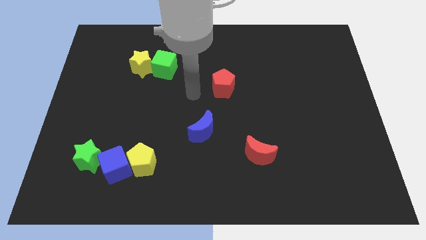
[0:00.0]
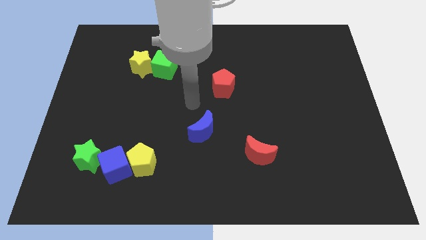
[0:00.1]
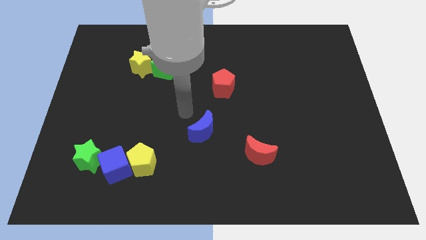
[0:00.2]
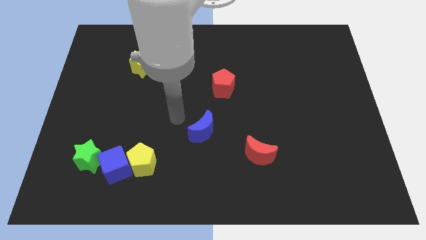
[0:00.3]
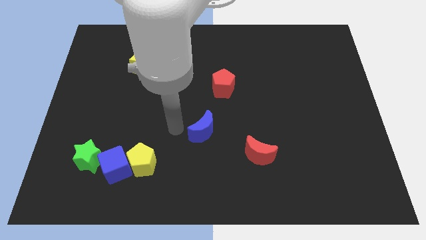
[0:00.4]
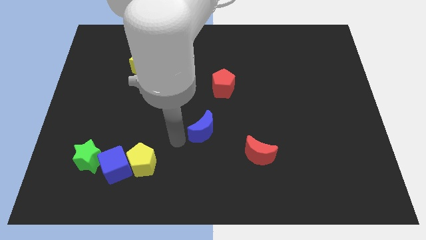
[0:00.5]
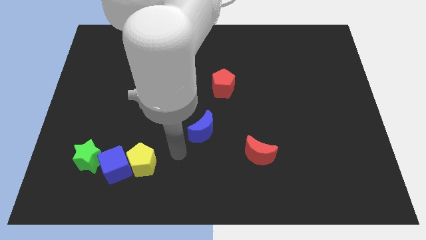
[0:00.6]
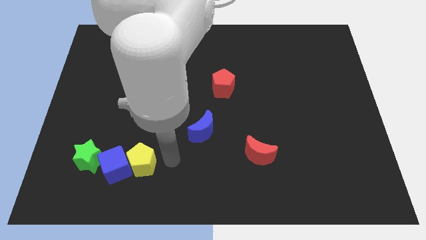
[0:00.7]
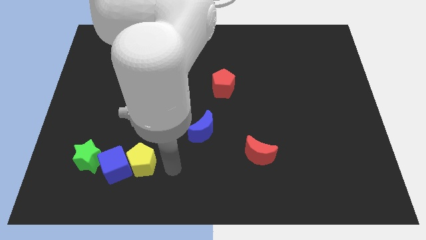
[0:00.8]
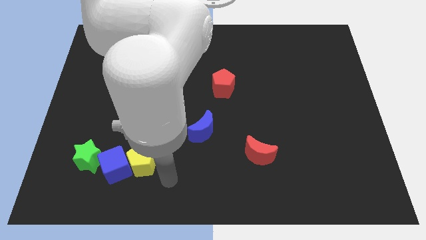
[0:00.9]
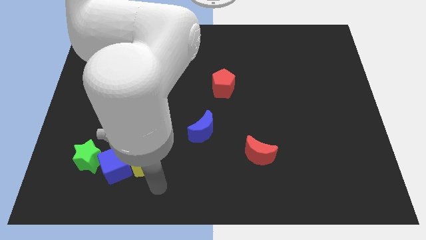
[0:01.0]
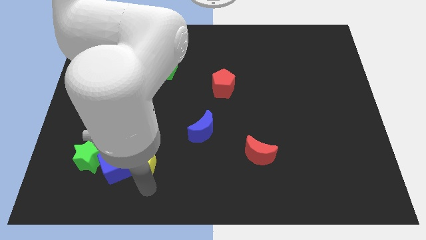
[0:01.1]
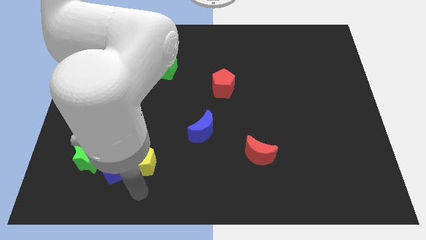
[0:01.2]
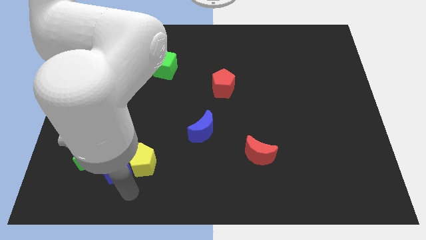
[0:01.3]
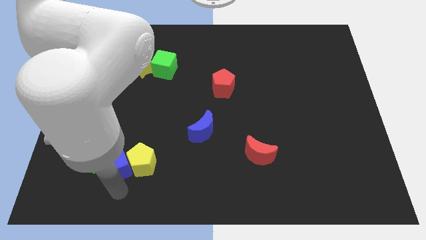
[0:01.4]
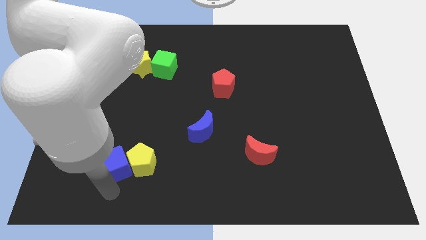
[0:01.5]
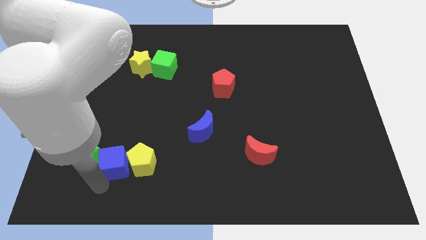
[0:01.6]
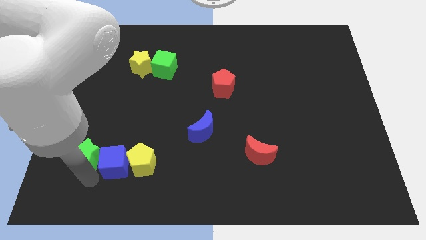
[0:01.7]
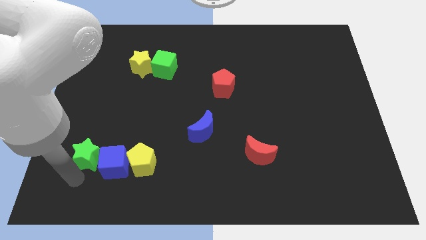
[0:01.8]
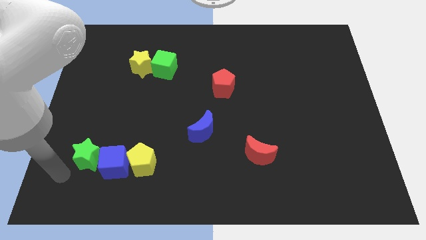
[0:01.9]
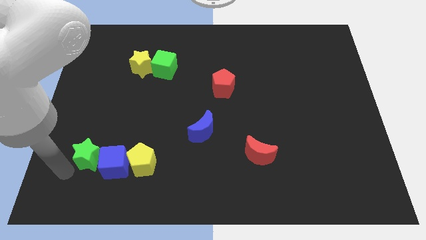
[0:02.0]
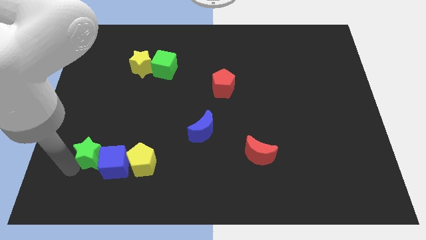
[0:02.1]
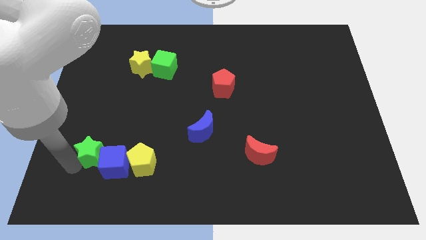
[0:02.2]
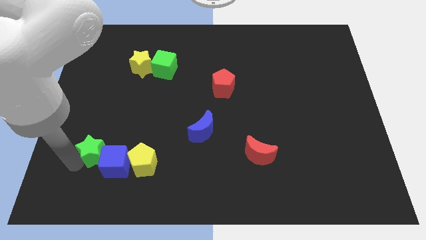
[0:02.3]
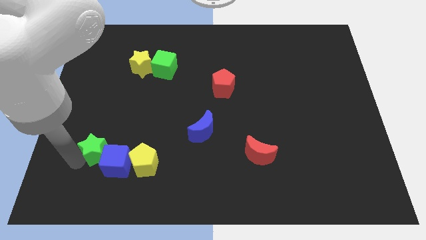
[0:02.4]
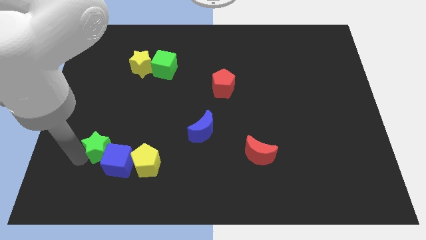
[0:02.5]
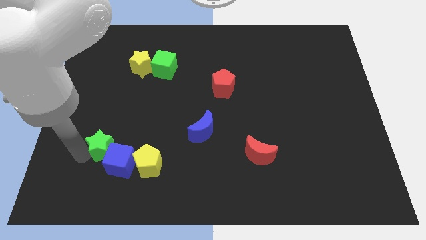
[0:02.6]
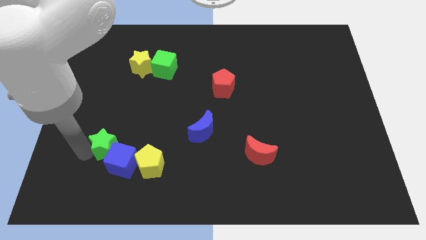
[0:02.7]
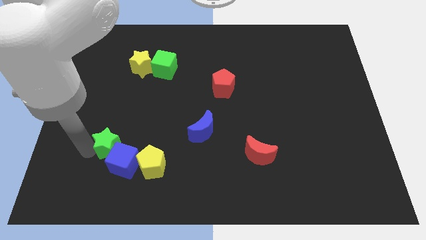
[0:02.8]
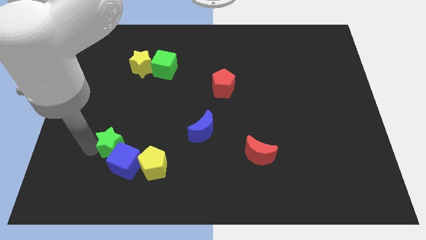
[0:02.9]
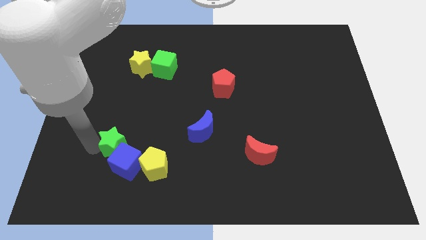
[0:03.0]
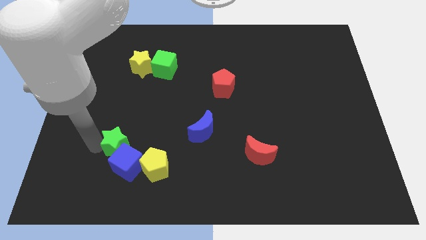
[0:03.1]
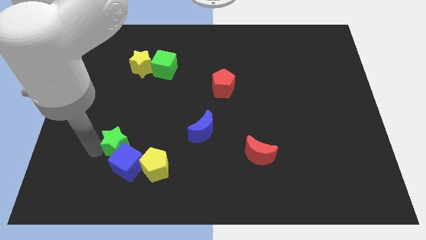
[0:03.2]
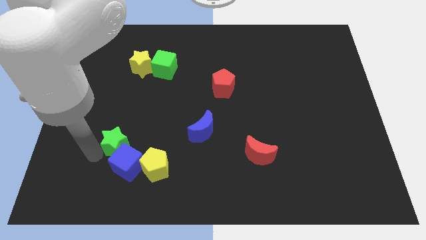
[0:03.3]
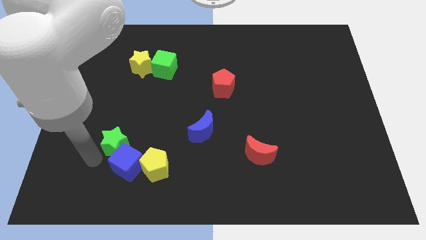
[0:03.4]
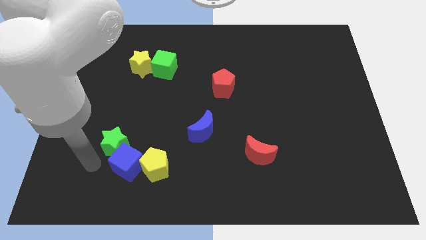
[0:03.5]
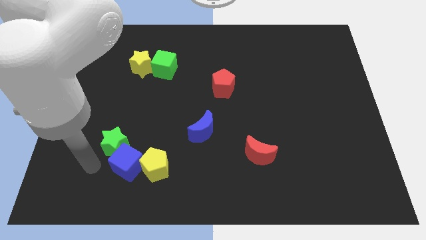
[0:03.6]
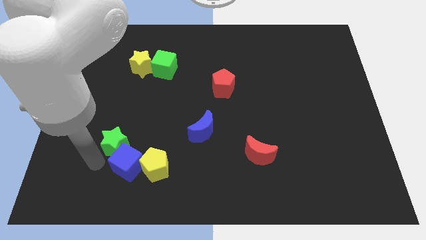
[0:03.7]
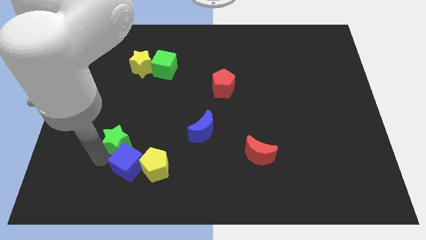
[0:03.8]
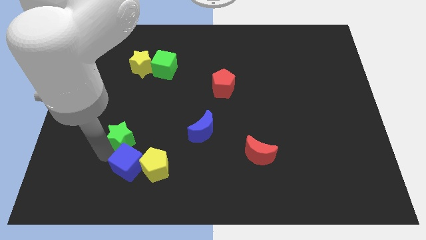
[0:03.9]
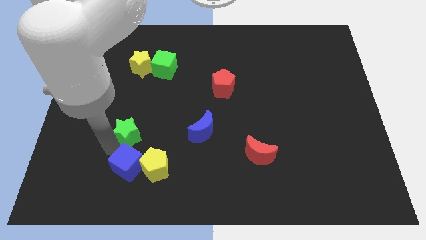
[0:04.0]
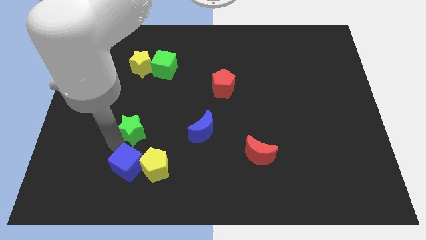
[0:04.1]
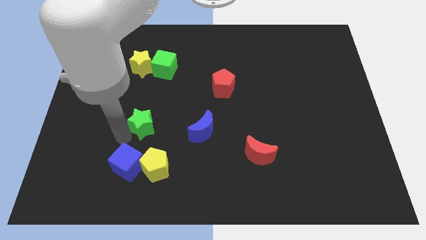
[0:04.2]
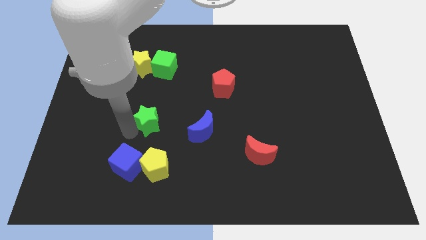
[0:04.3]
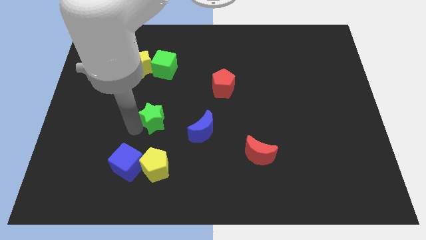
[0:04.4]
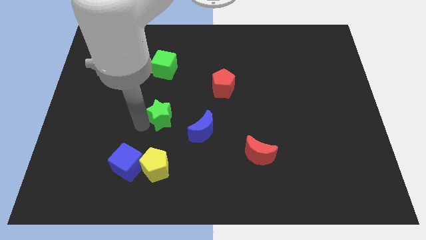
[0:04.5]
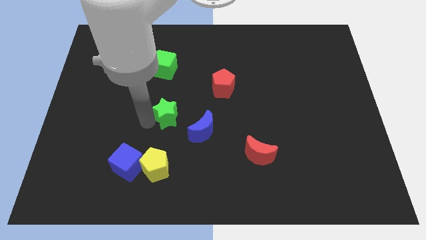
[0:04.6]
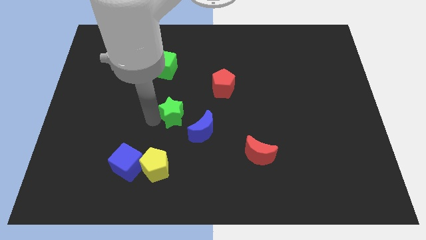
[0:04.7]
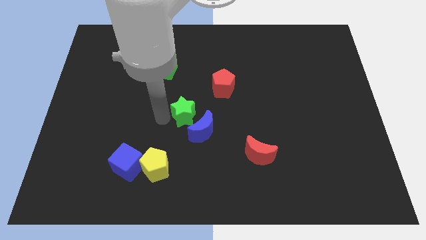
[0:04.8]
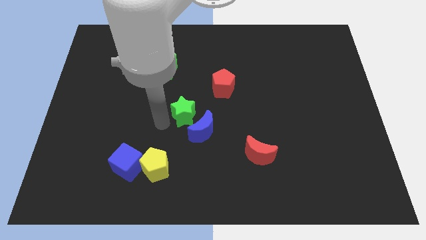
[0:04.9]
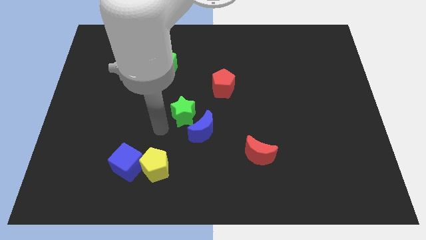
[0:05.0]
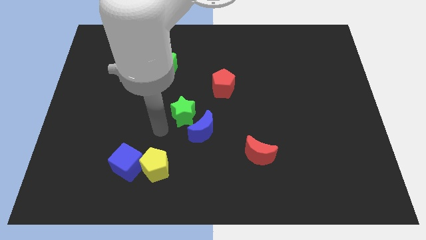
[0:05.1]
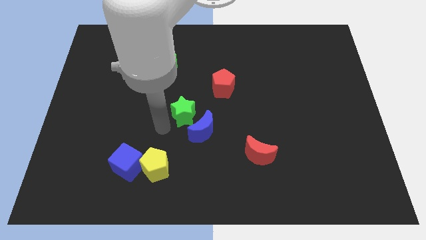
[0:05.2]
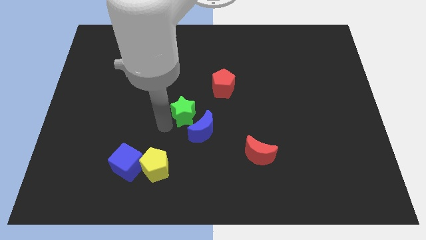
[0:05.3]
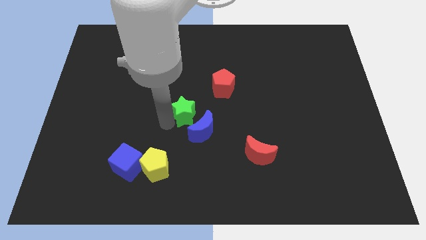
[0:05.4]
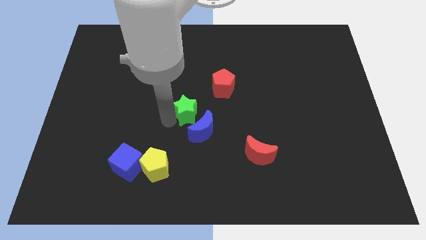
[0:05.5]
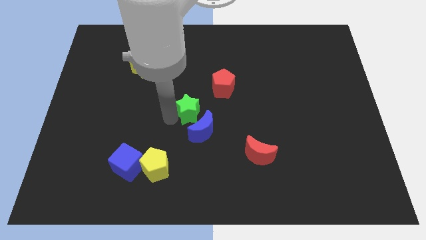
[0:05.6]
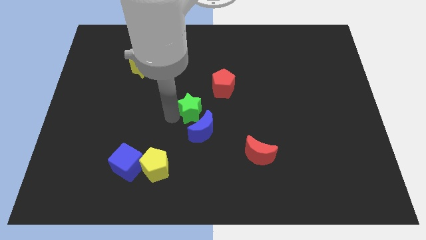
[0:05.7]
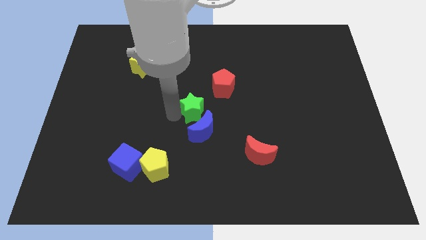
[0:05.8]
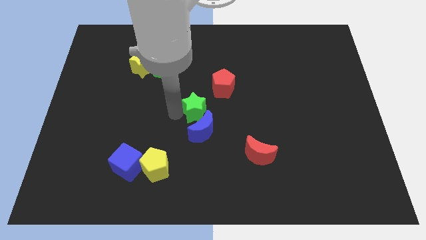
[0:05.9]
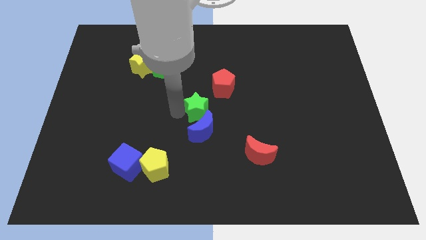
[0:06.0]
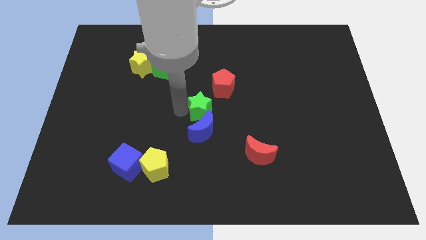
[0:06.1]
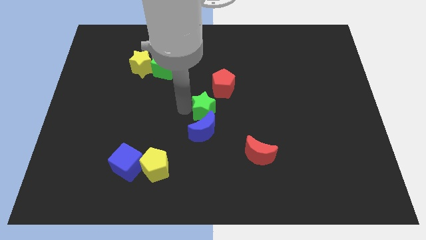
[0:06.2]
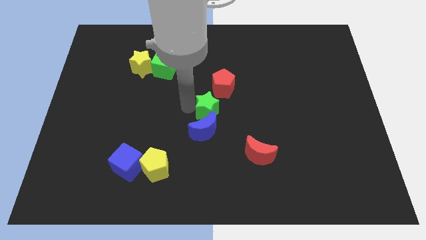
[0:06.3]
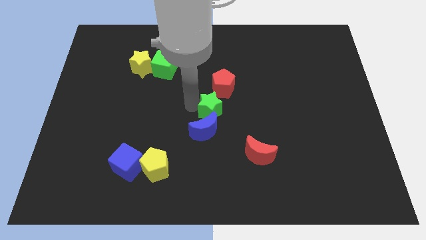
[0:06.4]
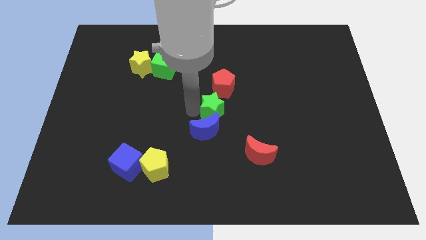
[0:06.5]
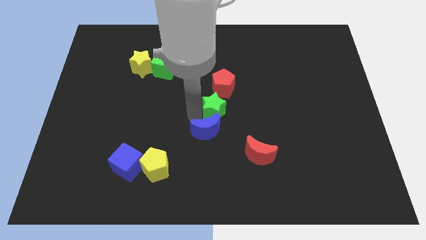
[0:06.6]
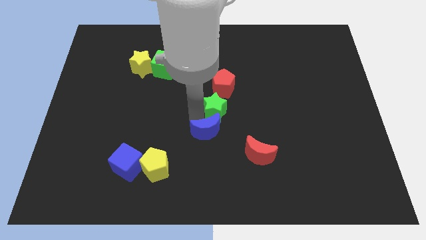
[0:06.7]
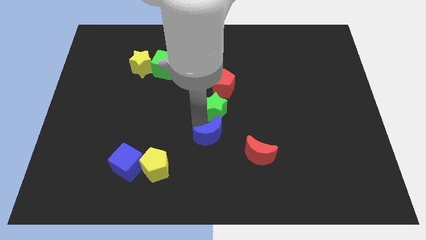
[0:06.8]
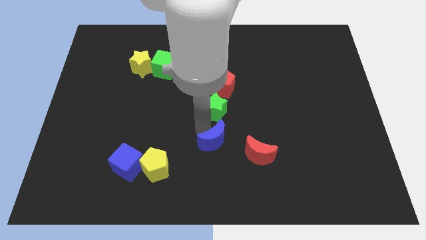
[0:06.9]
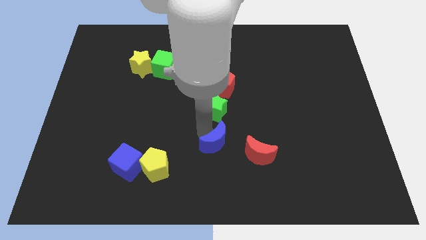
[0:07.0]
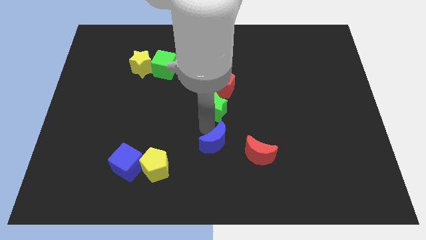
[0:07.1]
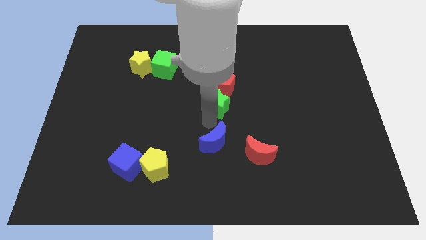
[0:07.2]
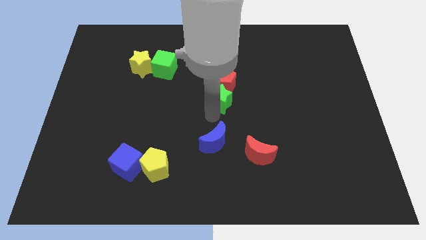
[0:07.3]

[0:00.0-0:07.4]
move the green star close to the red pentagon
